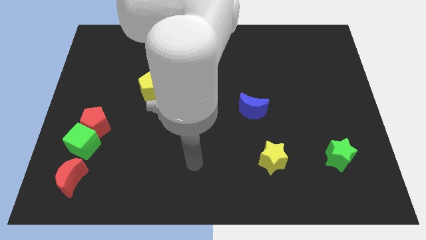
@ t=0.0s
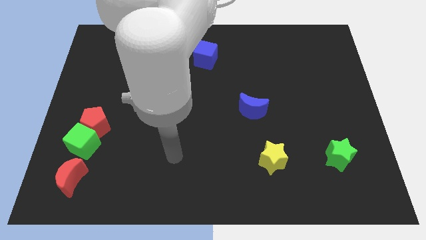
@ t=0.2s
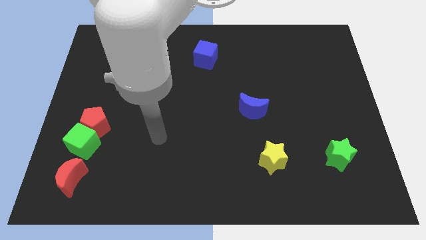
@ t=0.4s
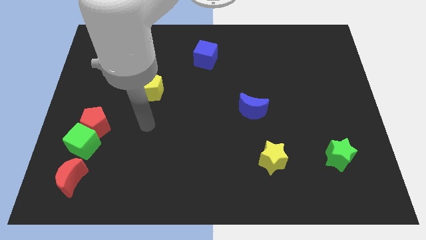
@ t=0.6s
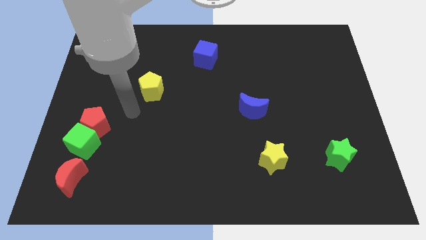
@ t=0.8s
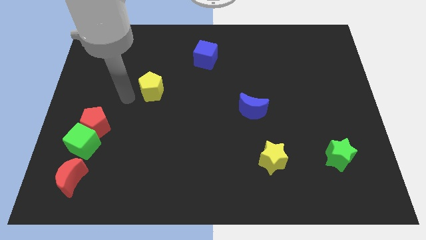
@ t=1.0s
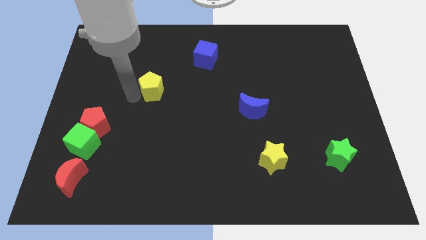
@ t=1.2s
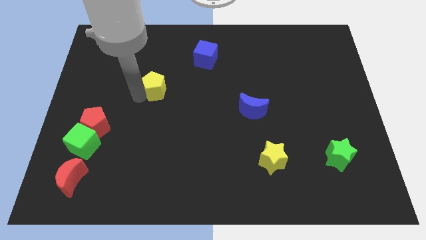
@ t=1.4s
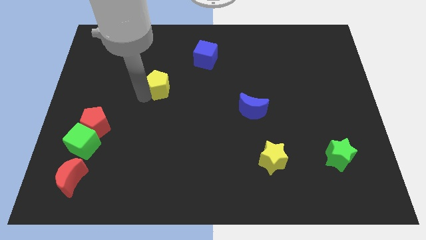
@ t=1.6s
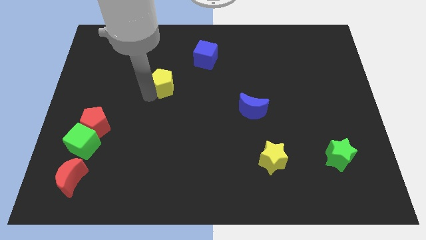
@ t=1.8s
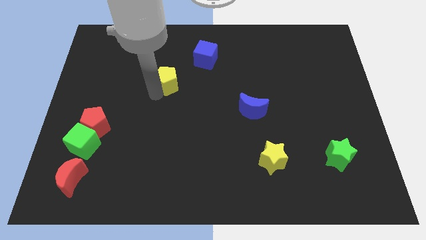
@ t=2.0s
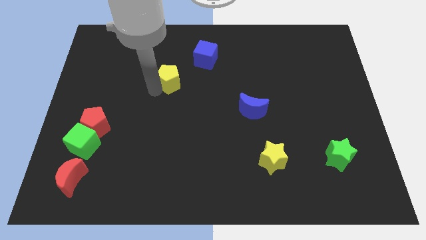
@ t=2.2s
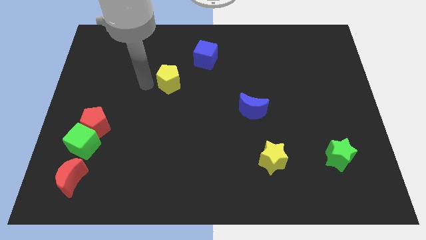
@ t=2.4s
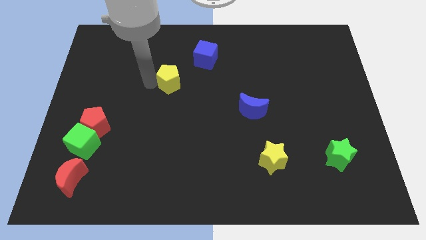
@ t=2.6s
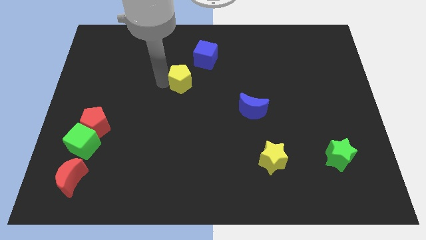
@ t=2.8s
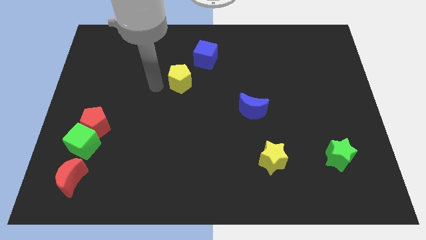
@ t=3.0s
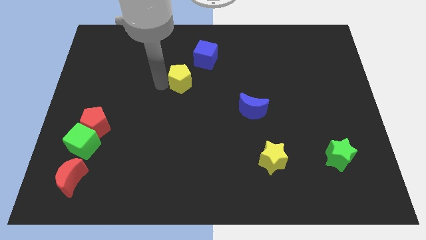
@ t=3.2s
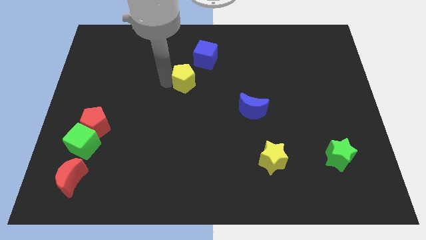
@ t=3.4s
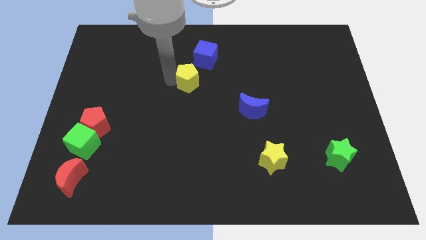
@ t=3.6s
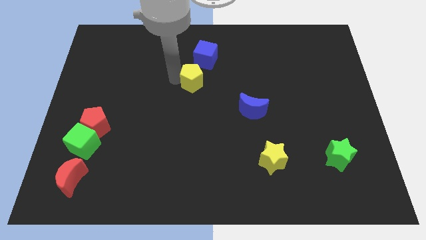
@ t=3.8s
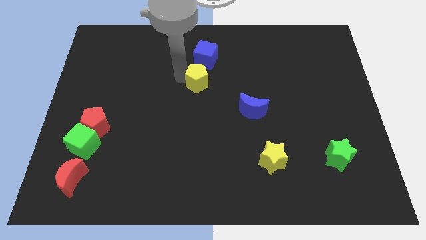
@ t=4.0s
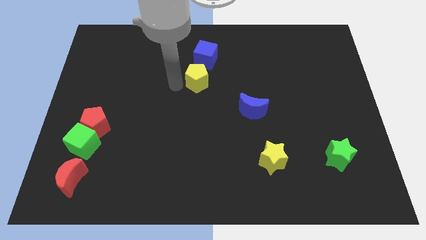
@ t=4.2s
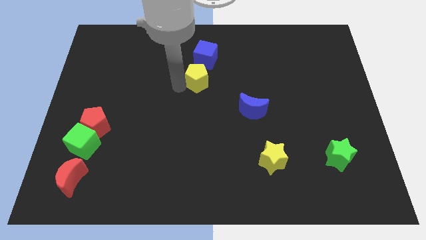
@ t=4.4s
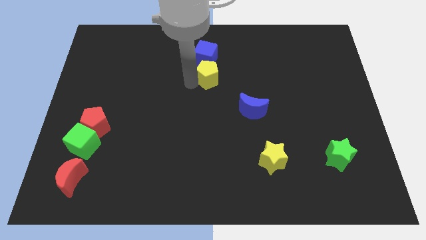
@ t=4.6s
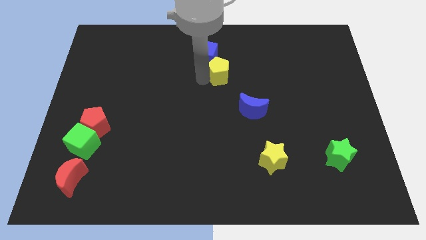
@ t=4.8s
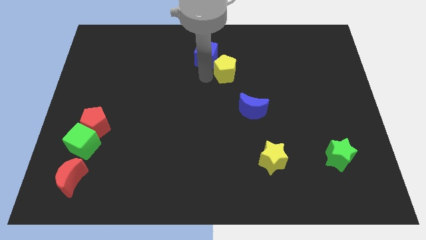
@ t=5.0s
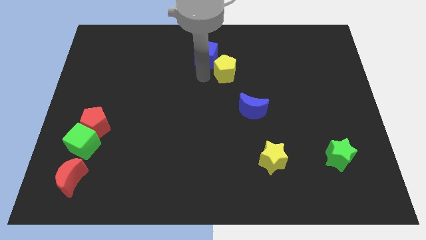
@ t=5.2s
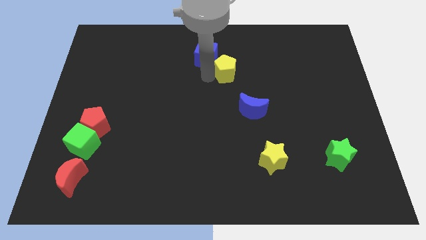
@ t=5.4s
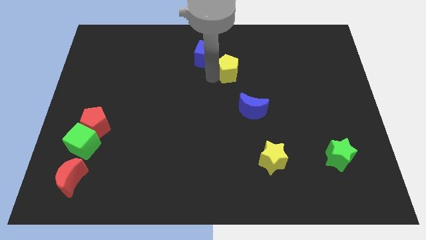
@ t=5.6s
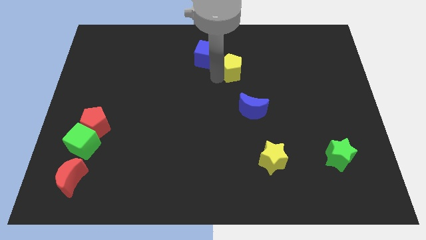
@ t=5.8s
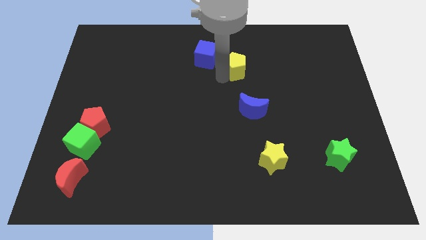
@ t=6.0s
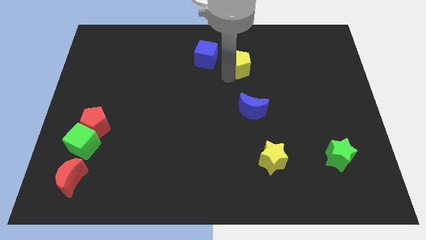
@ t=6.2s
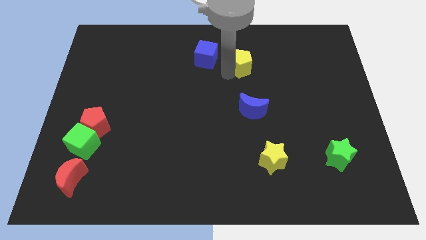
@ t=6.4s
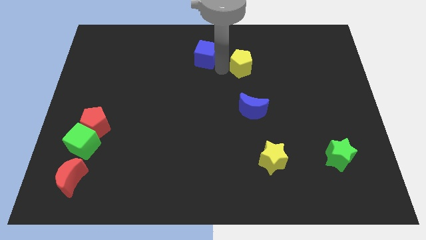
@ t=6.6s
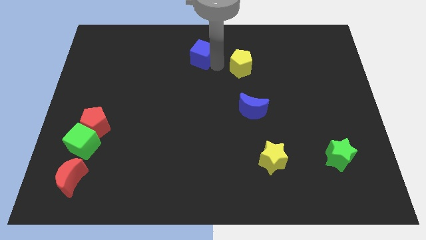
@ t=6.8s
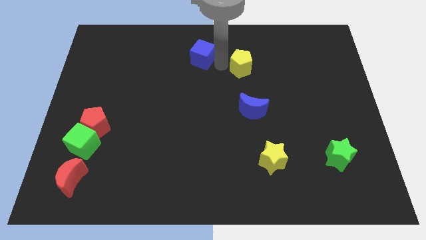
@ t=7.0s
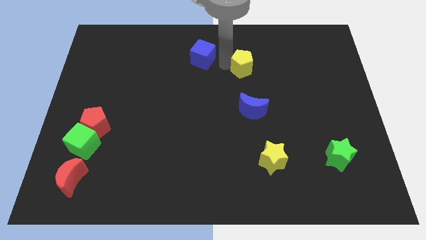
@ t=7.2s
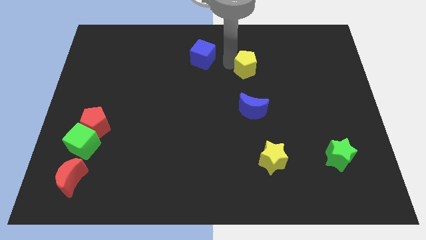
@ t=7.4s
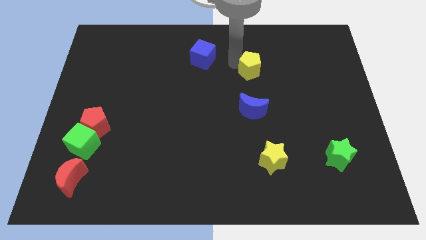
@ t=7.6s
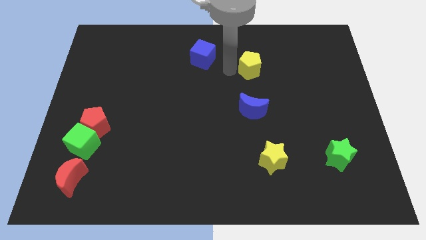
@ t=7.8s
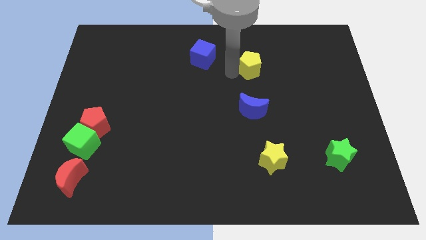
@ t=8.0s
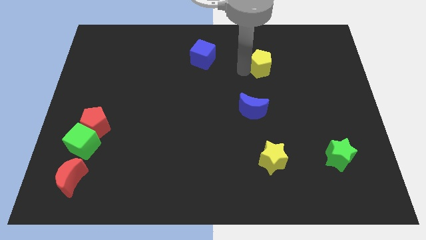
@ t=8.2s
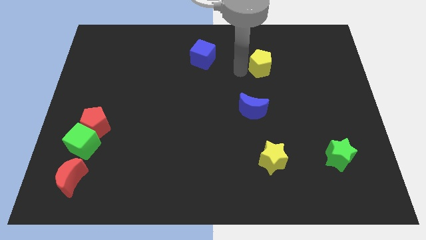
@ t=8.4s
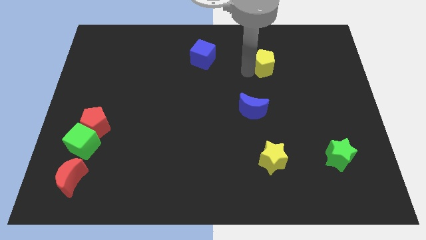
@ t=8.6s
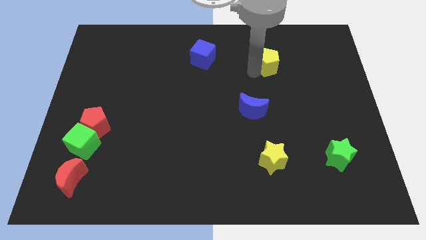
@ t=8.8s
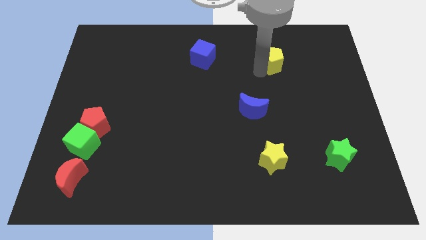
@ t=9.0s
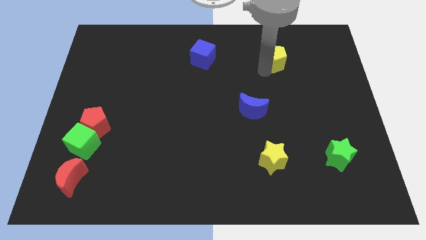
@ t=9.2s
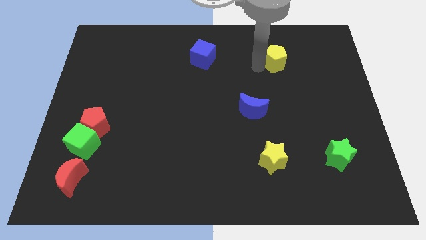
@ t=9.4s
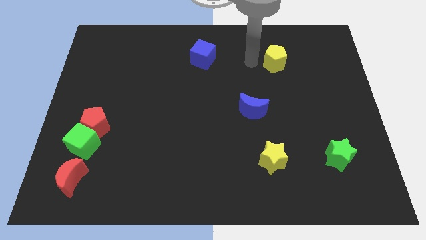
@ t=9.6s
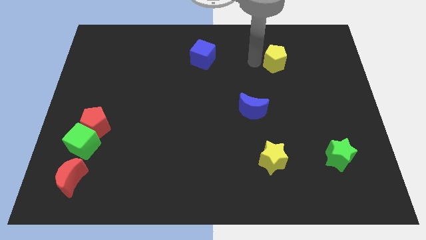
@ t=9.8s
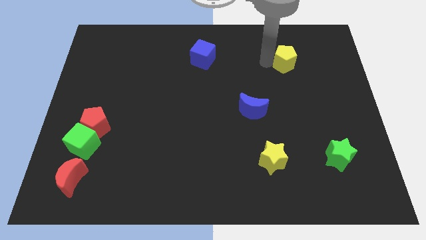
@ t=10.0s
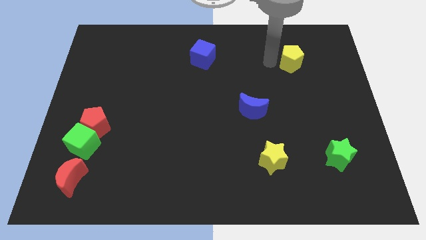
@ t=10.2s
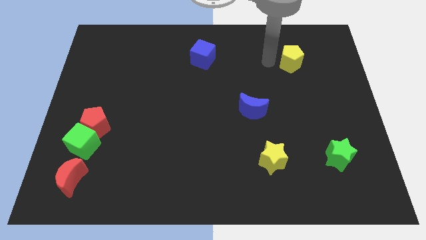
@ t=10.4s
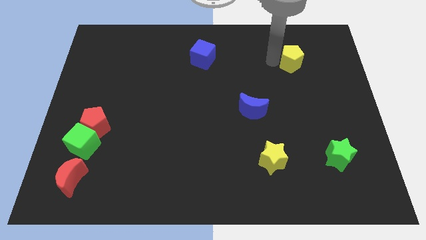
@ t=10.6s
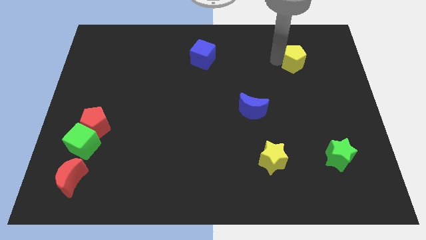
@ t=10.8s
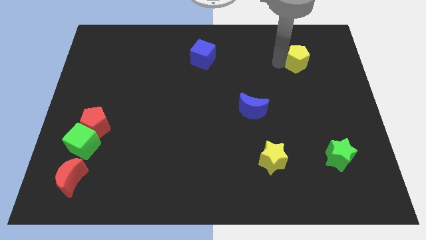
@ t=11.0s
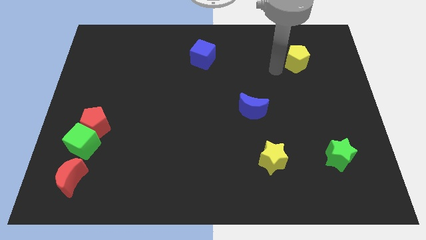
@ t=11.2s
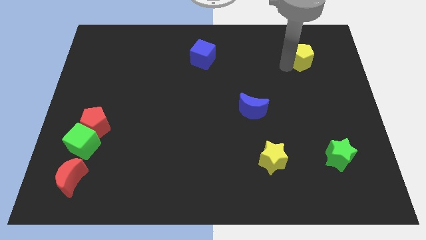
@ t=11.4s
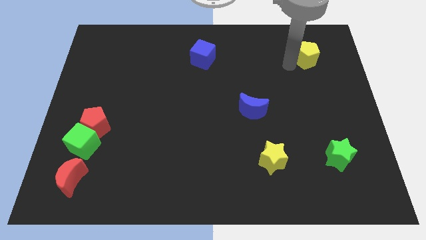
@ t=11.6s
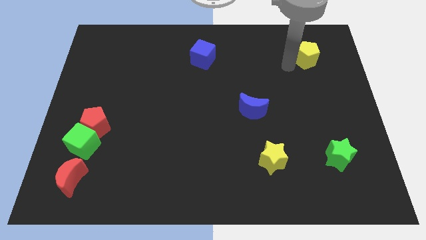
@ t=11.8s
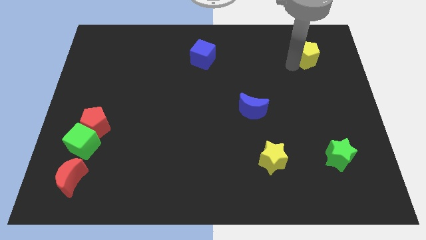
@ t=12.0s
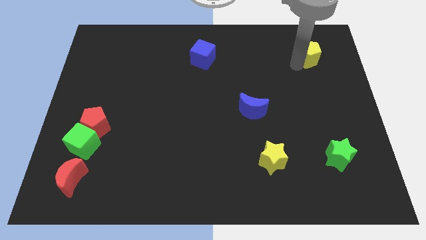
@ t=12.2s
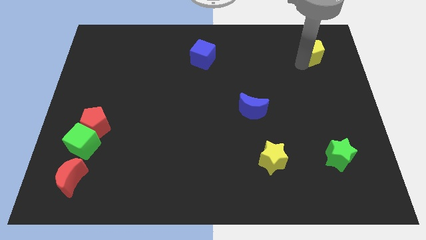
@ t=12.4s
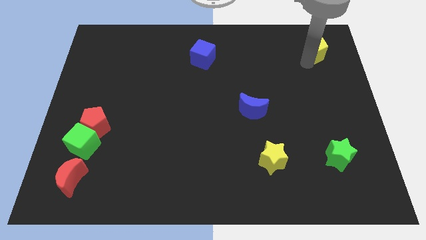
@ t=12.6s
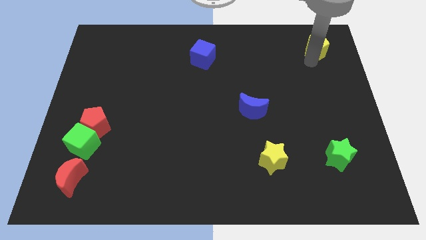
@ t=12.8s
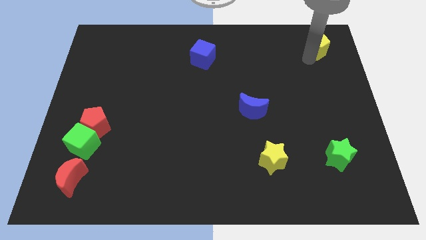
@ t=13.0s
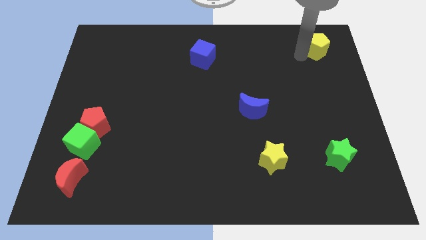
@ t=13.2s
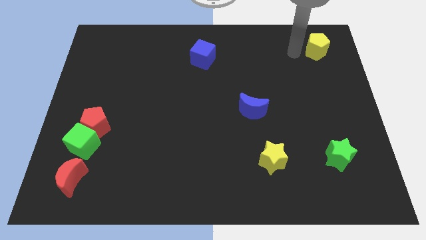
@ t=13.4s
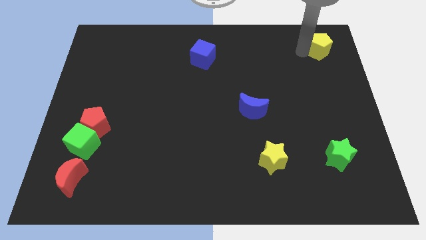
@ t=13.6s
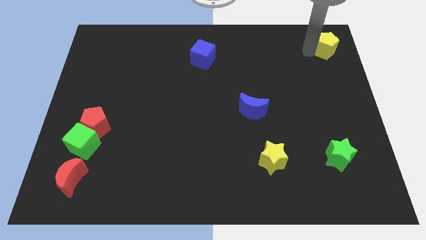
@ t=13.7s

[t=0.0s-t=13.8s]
push the yellow pentagon to the top right corner
